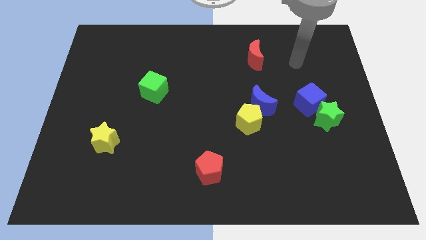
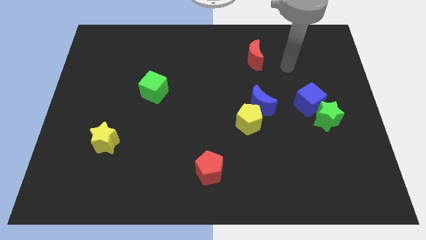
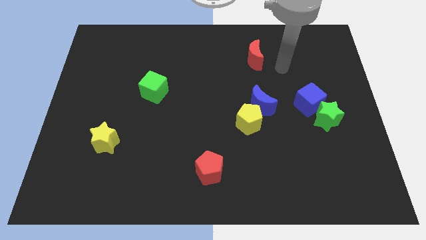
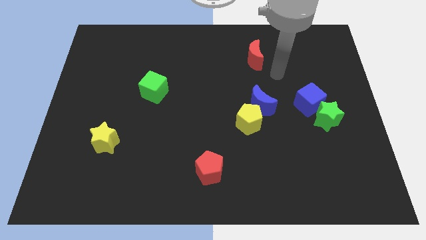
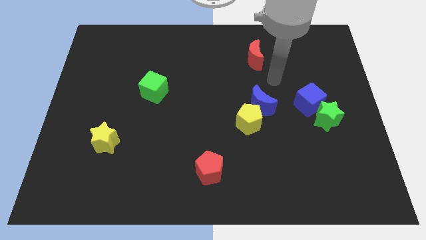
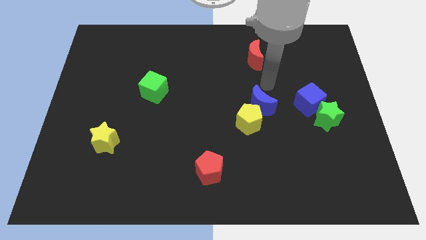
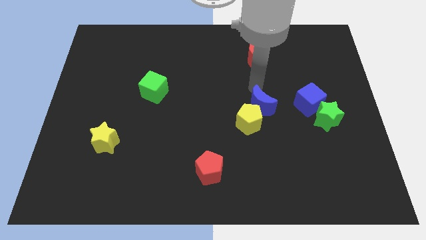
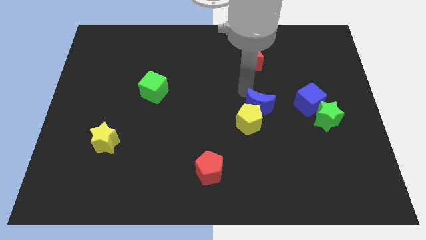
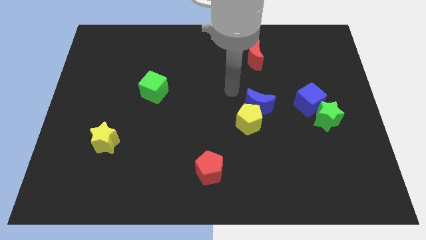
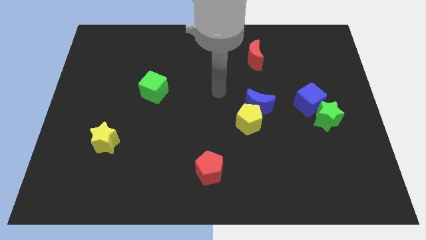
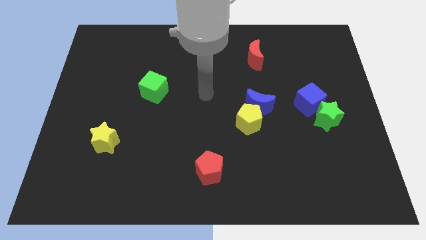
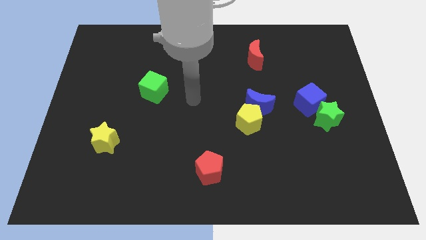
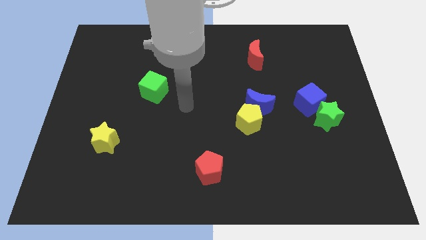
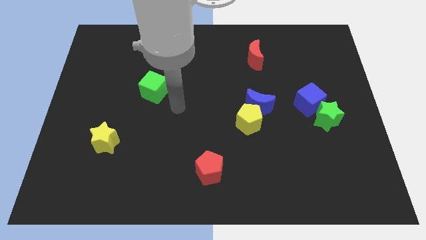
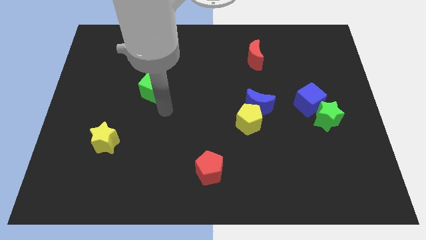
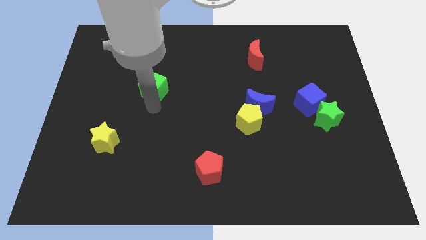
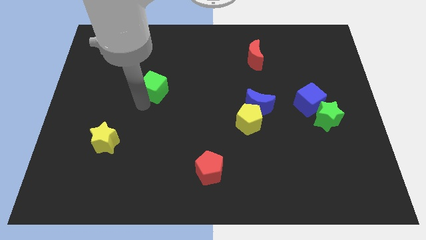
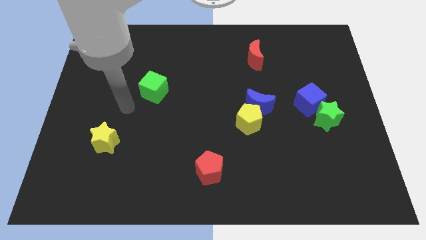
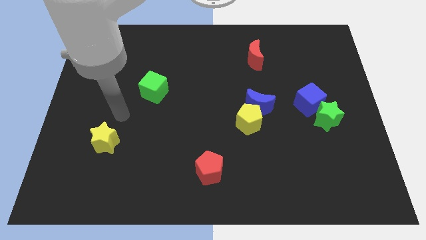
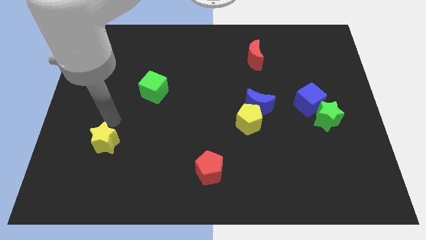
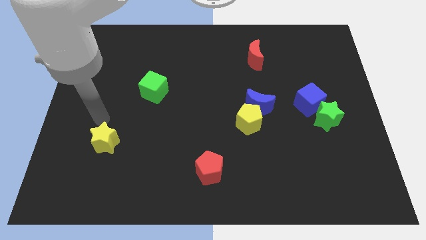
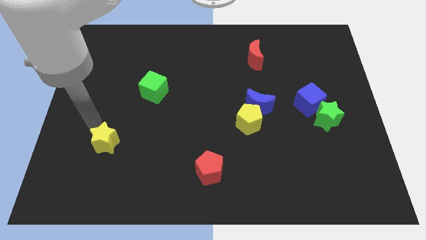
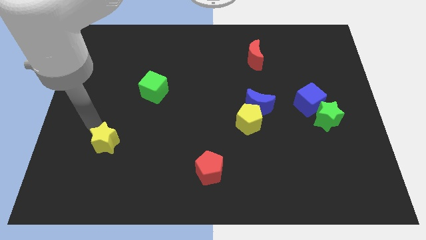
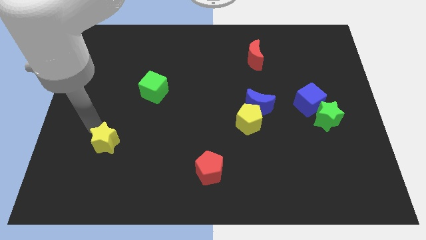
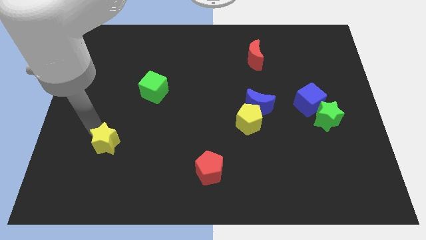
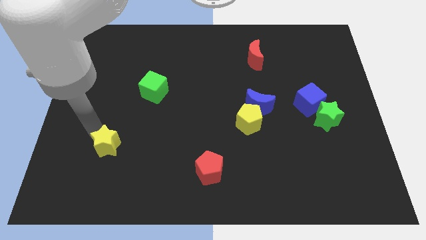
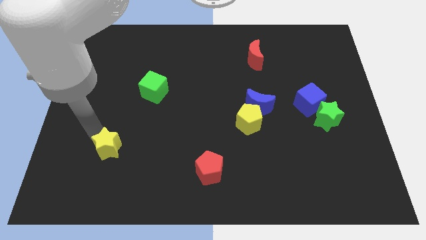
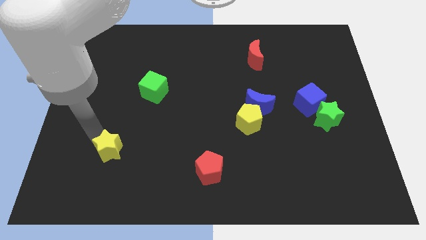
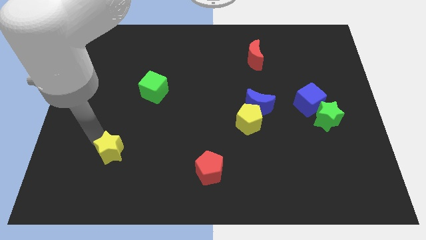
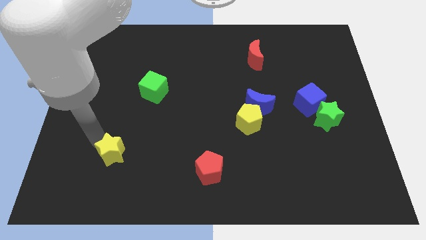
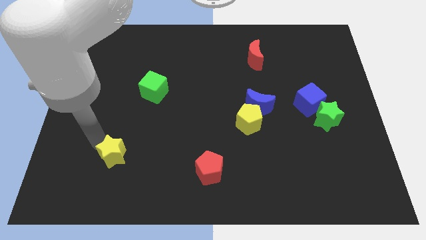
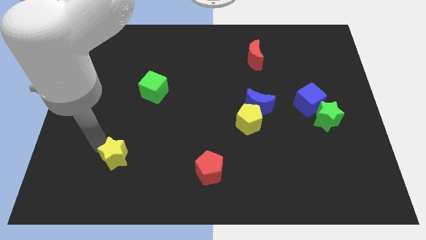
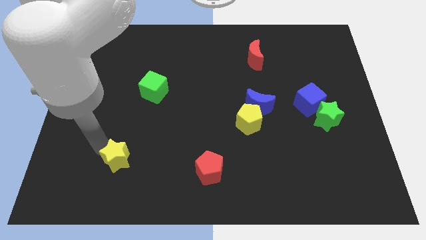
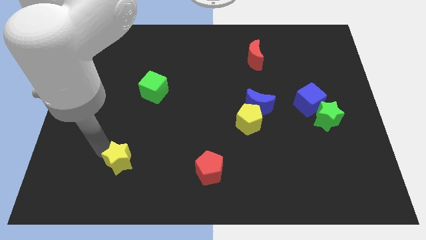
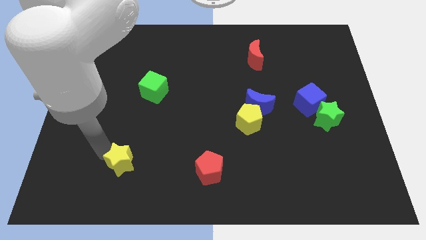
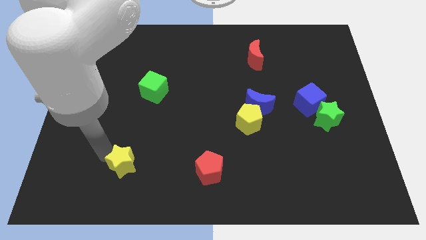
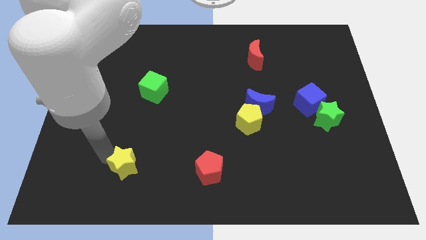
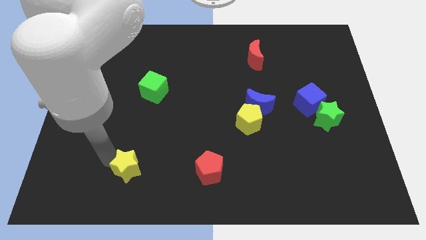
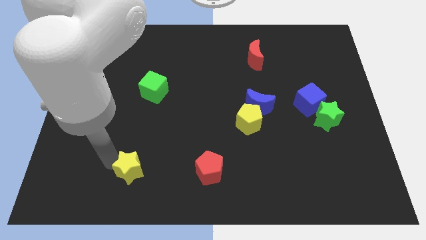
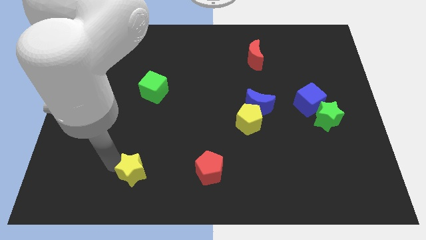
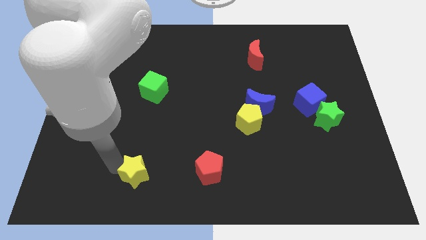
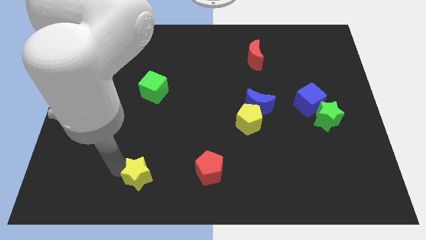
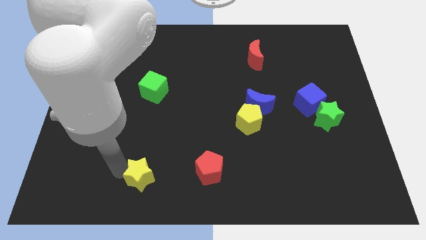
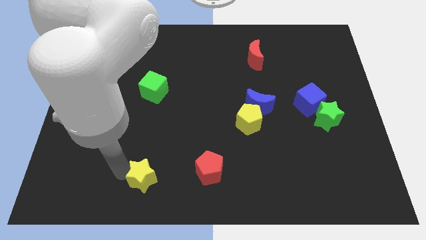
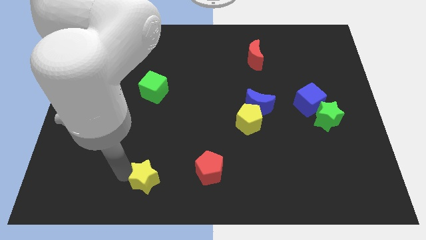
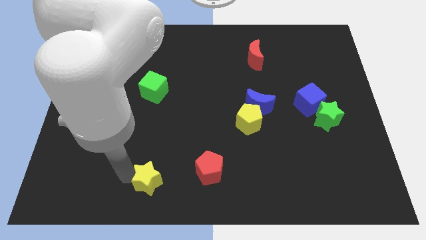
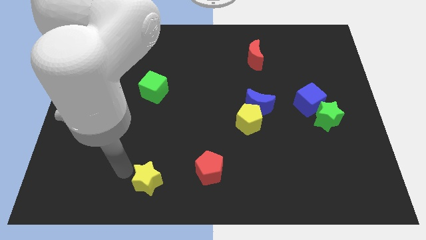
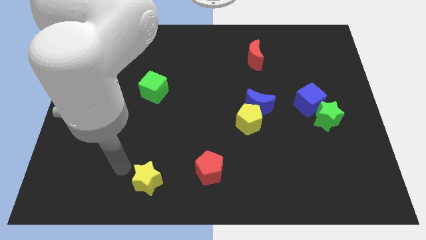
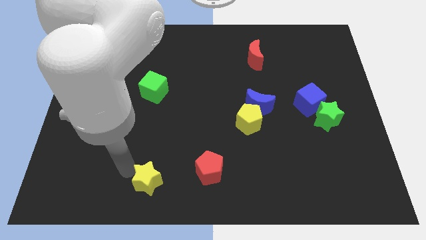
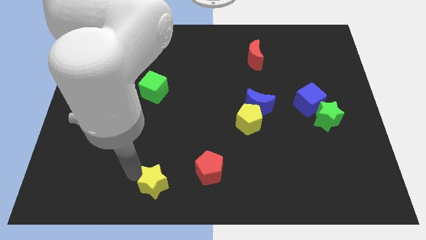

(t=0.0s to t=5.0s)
slide the yellow star to the bottom

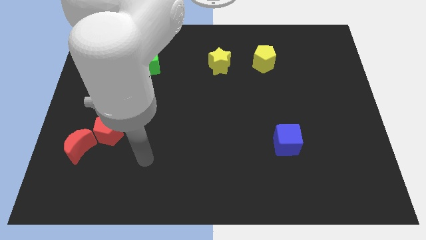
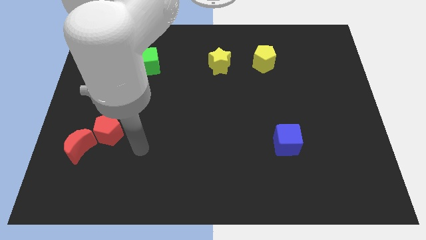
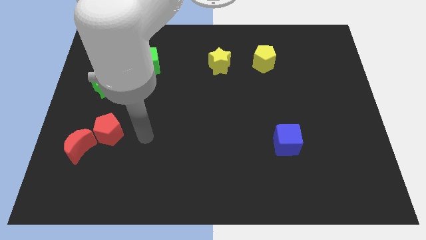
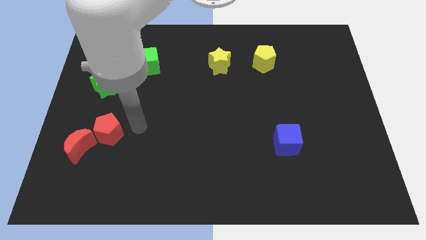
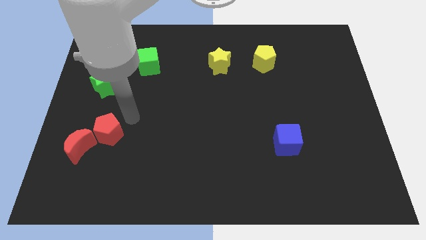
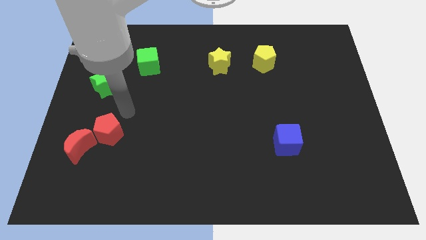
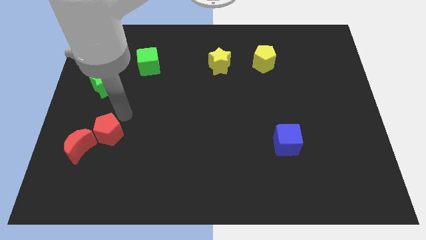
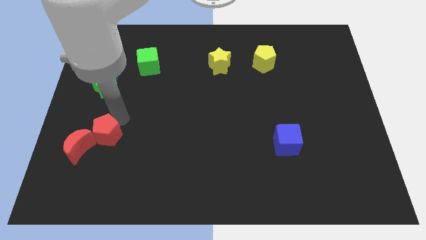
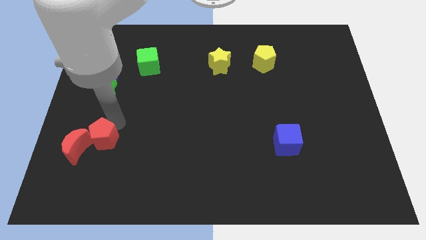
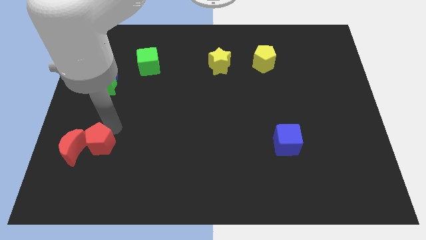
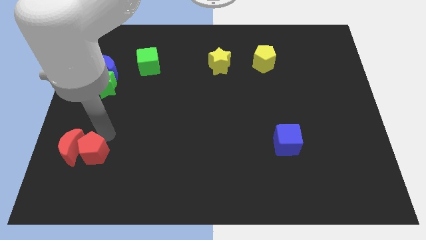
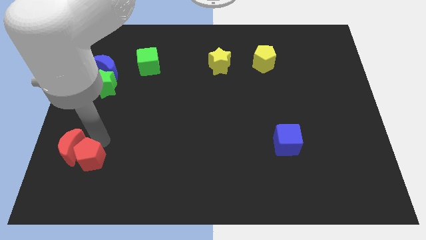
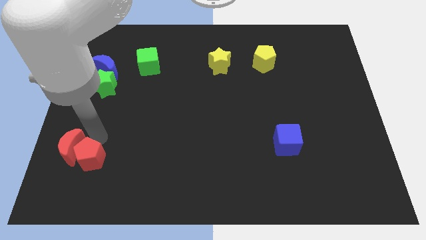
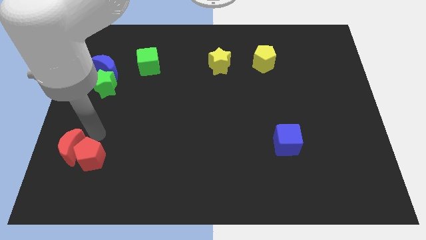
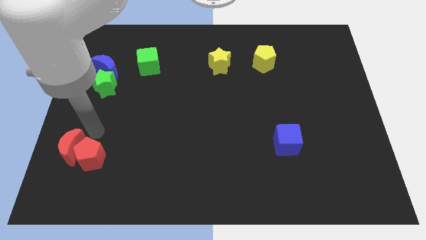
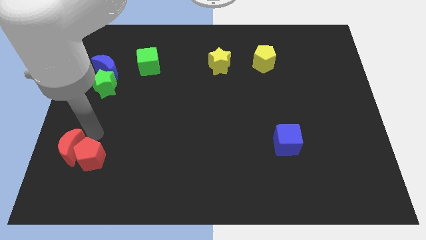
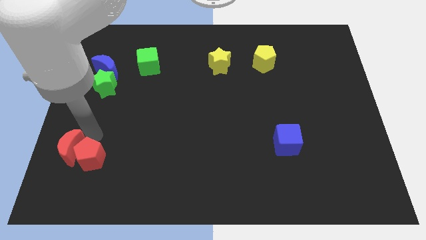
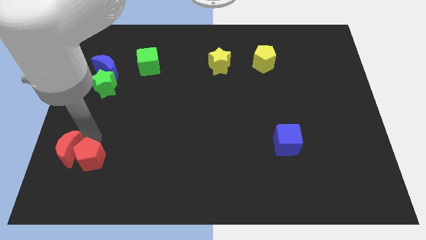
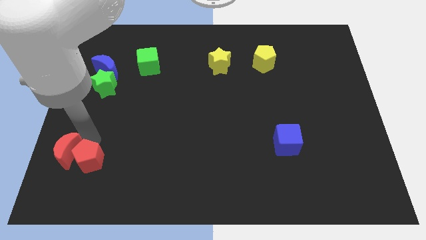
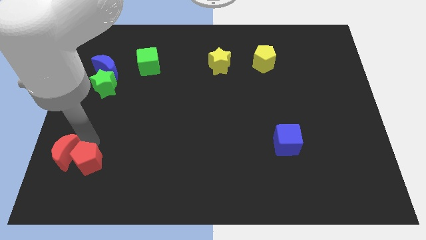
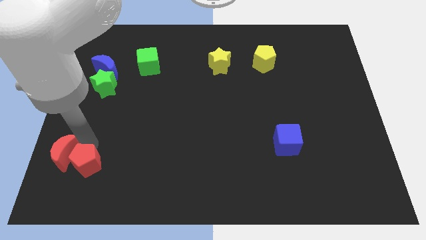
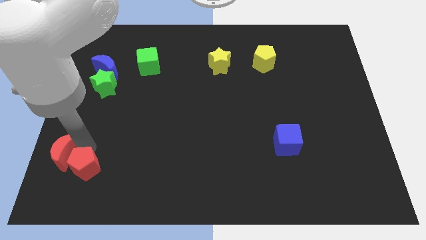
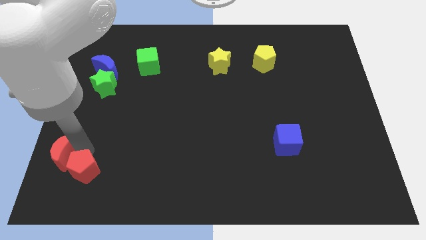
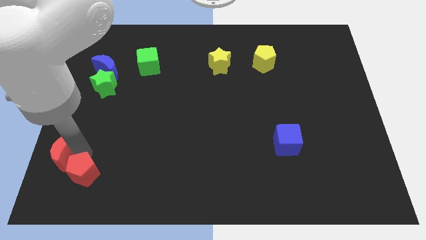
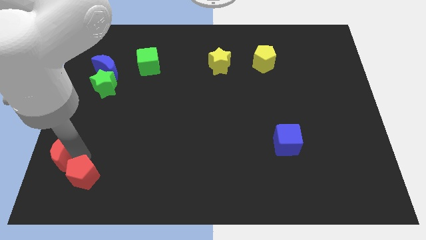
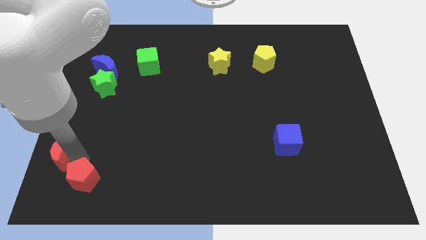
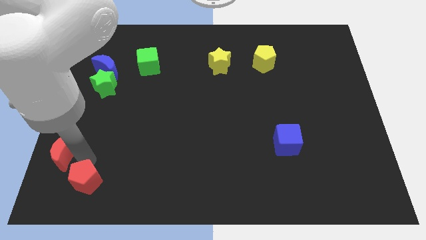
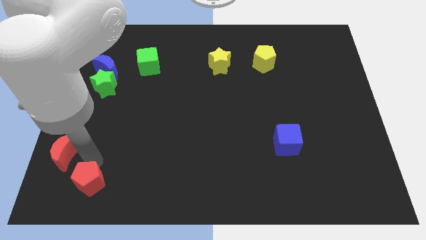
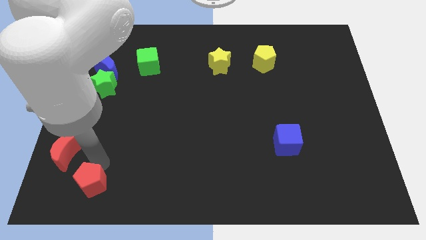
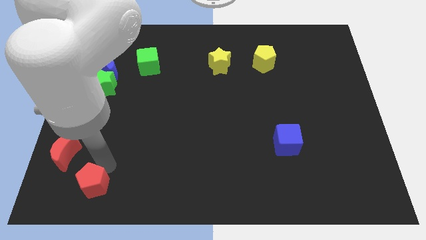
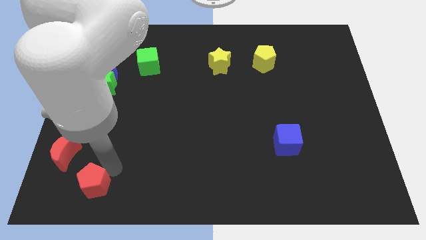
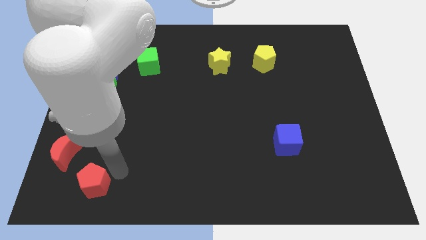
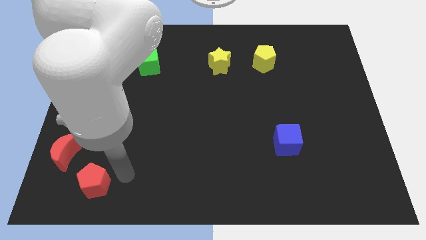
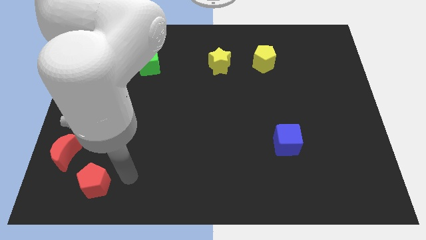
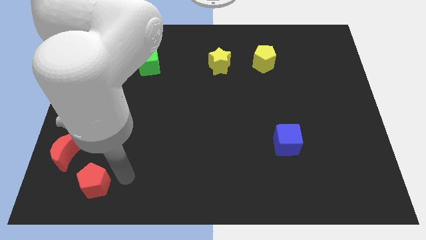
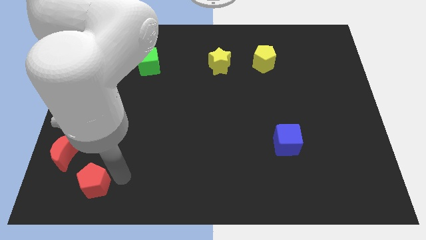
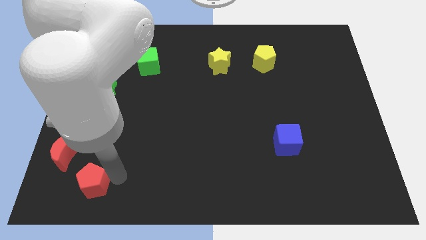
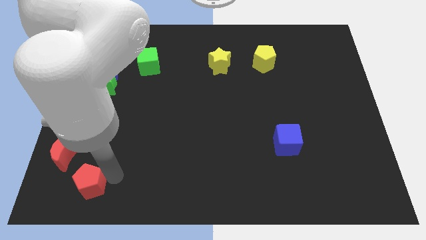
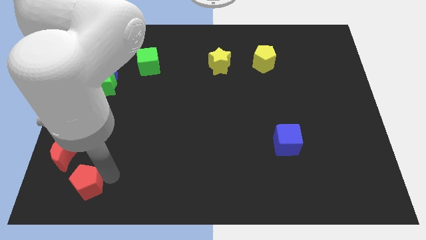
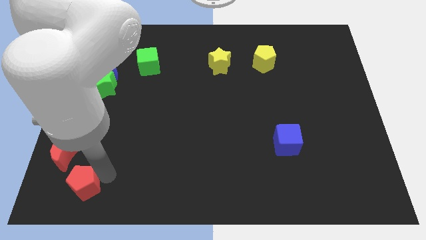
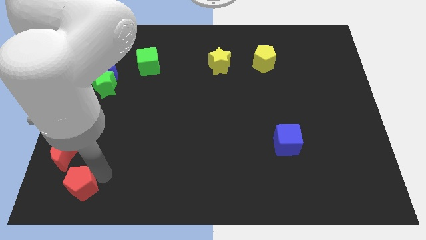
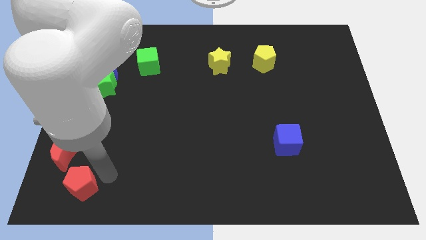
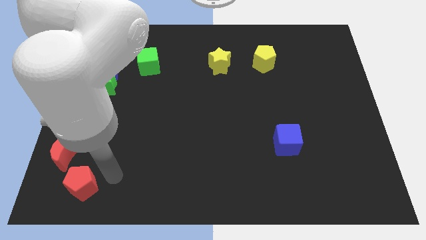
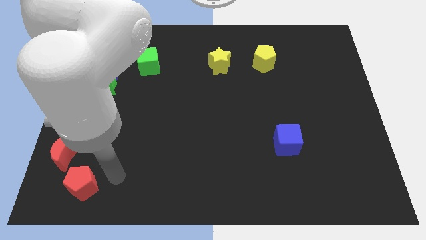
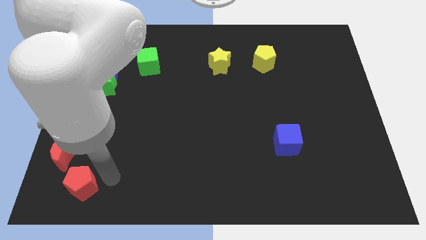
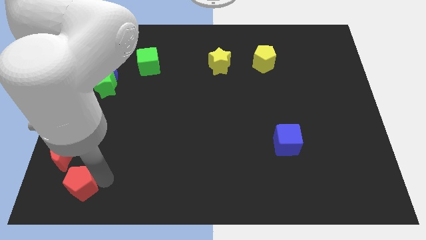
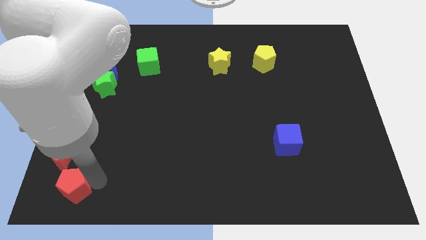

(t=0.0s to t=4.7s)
move the red pentagon to the lower left corner
